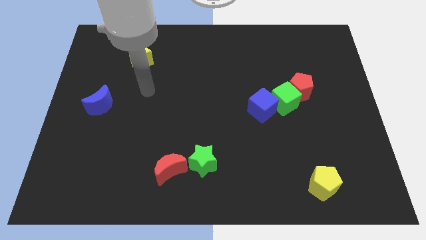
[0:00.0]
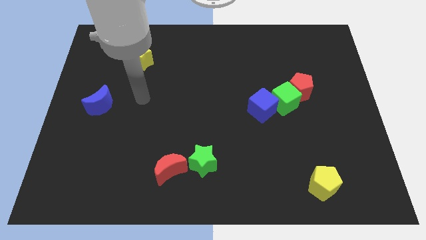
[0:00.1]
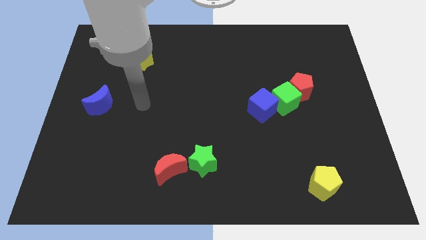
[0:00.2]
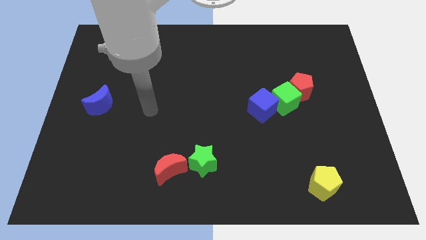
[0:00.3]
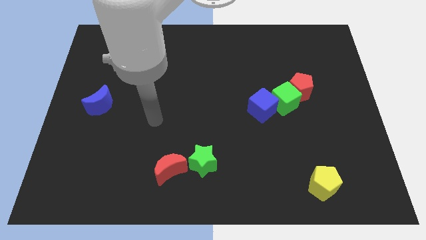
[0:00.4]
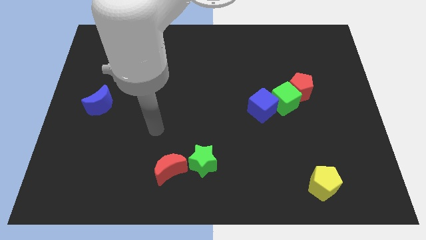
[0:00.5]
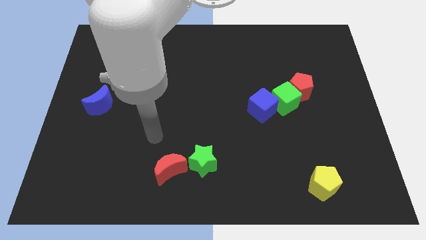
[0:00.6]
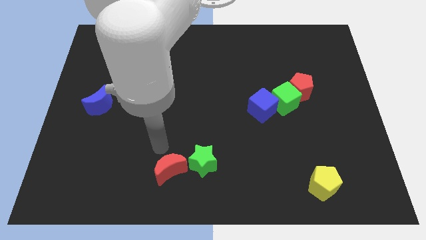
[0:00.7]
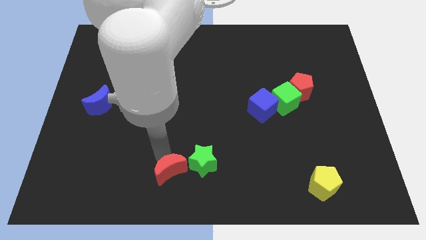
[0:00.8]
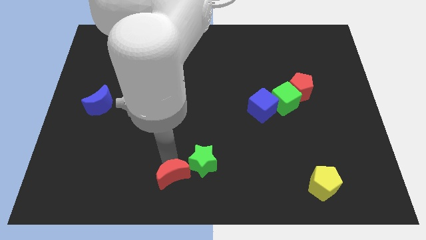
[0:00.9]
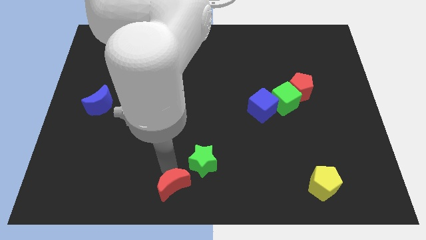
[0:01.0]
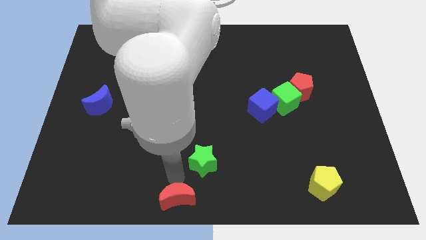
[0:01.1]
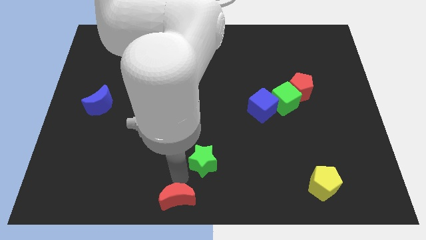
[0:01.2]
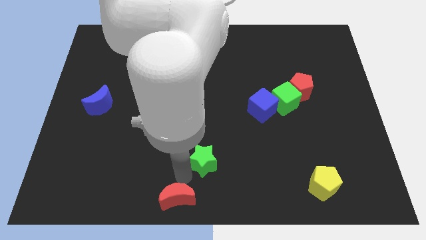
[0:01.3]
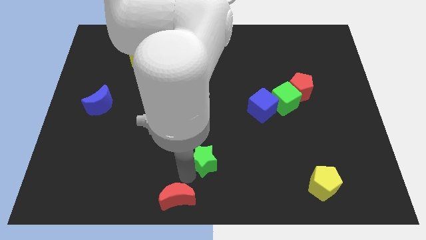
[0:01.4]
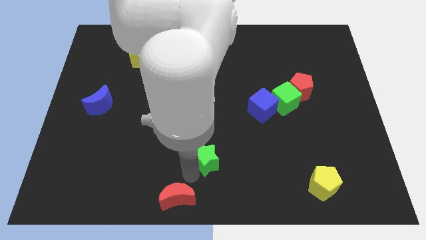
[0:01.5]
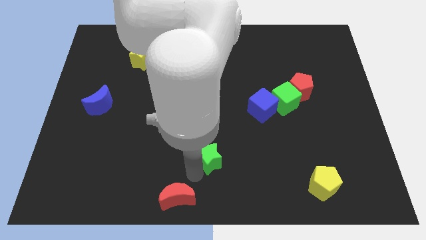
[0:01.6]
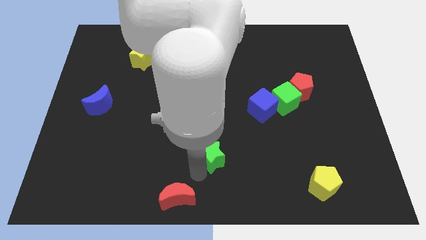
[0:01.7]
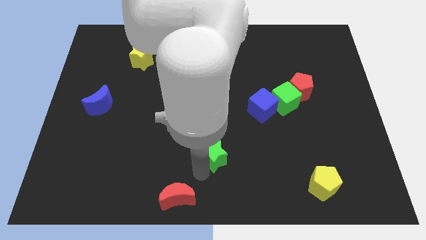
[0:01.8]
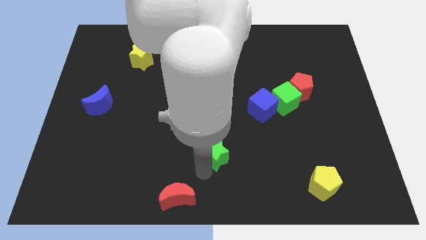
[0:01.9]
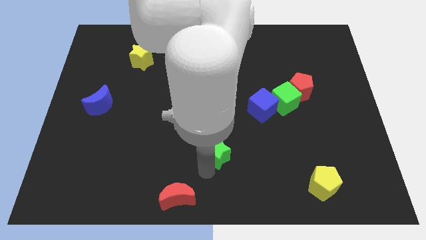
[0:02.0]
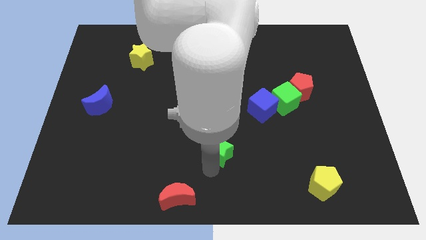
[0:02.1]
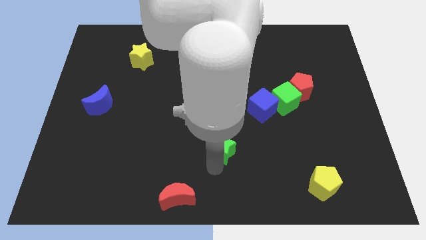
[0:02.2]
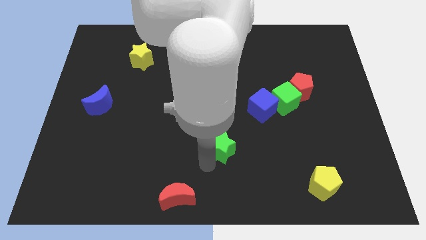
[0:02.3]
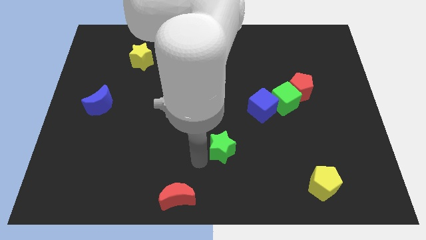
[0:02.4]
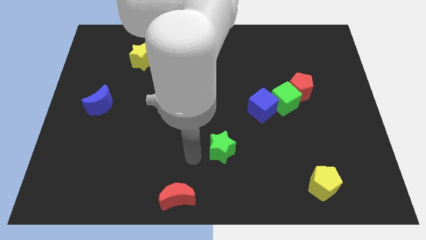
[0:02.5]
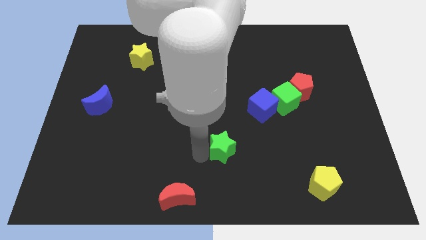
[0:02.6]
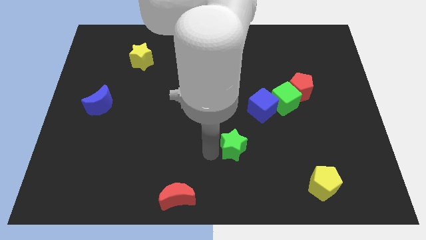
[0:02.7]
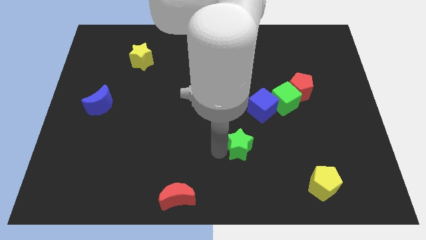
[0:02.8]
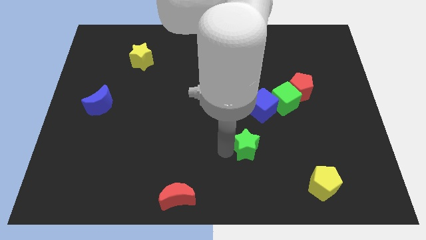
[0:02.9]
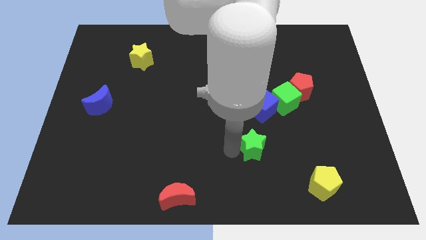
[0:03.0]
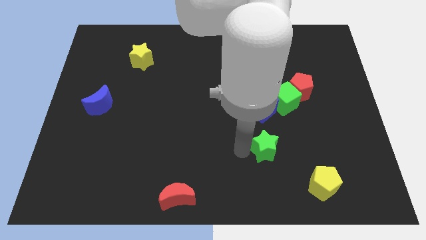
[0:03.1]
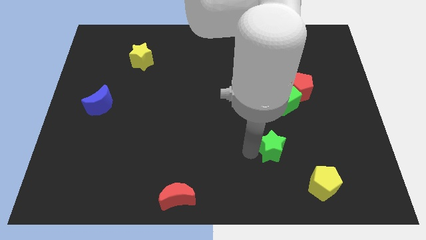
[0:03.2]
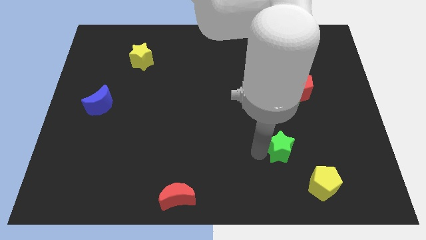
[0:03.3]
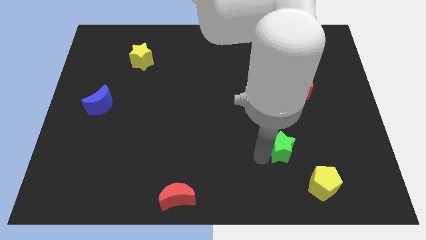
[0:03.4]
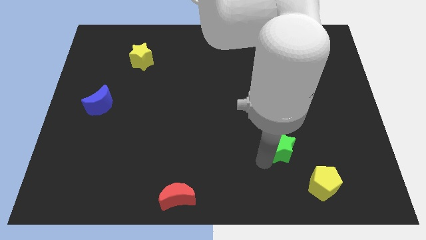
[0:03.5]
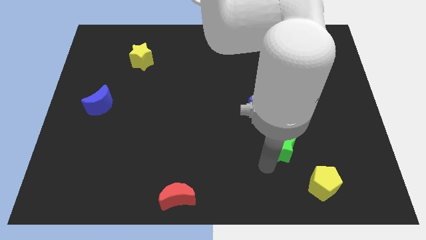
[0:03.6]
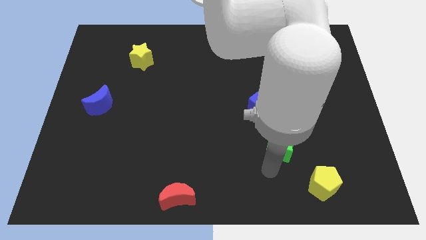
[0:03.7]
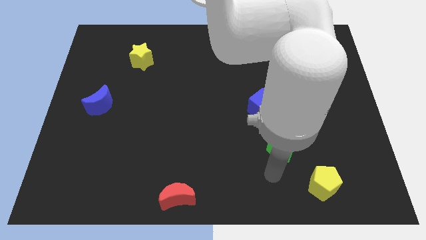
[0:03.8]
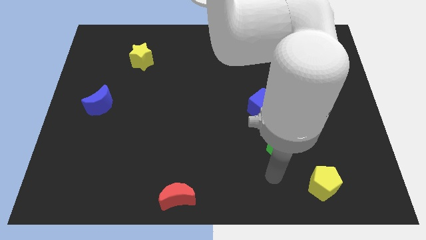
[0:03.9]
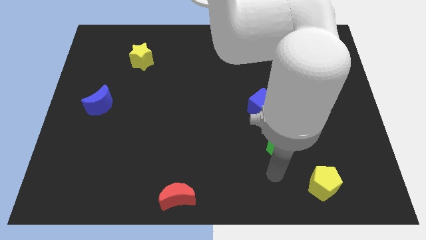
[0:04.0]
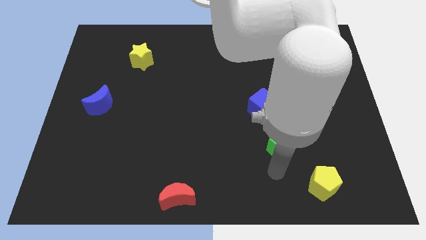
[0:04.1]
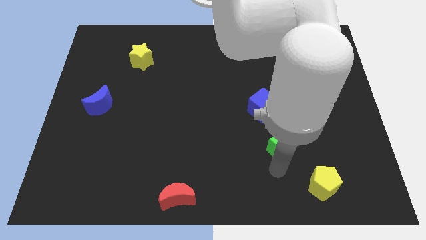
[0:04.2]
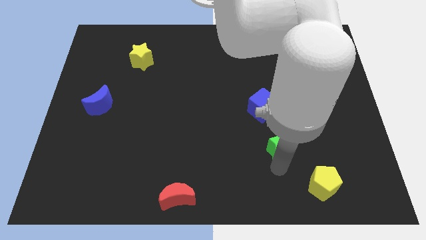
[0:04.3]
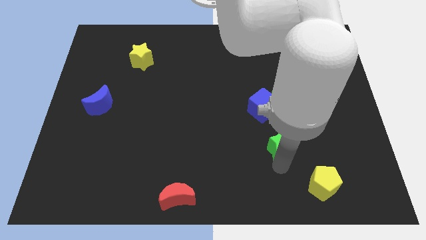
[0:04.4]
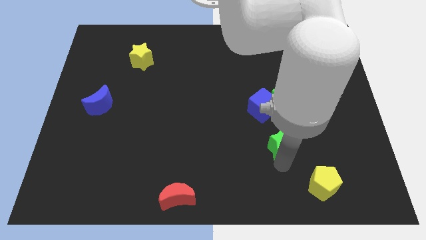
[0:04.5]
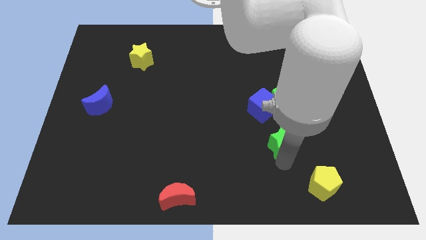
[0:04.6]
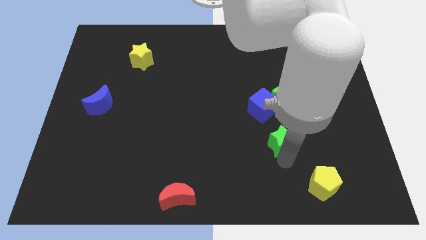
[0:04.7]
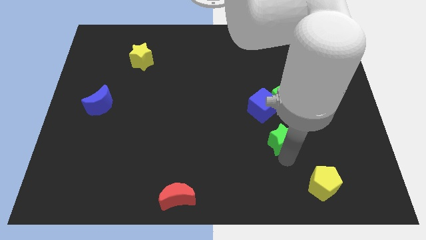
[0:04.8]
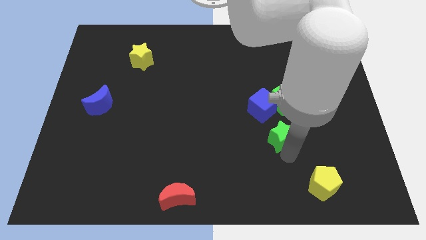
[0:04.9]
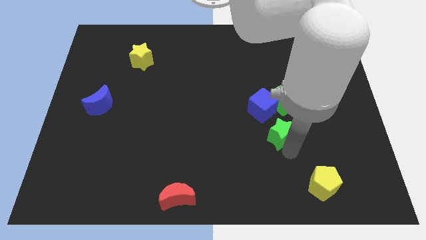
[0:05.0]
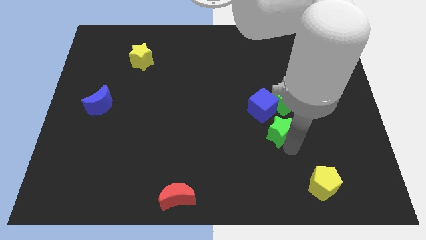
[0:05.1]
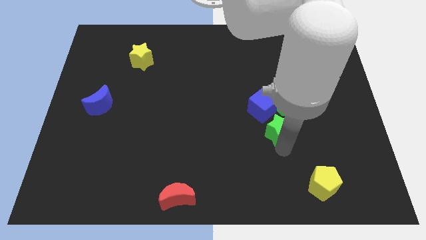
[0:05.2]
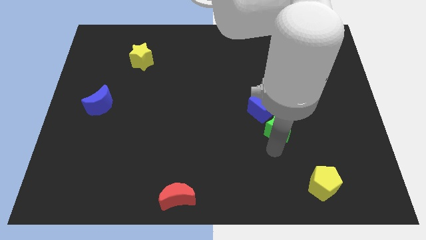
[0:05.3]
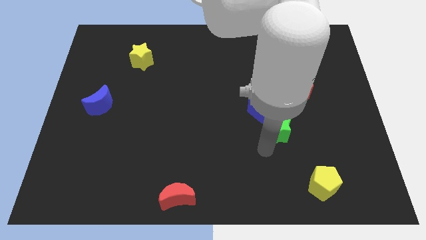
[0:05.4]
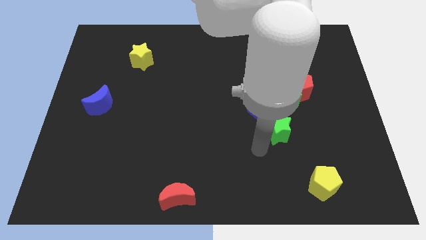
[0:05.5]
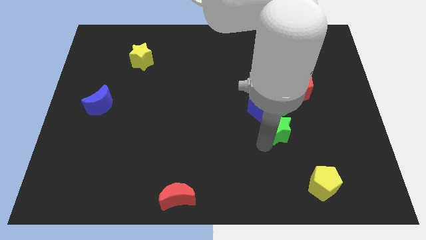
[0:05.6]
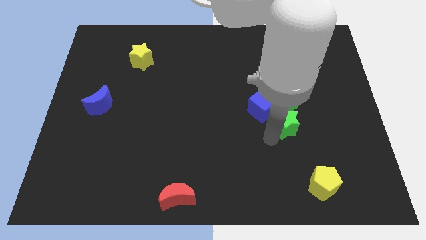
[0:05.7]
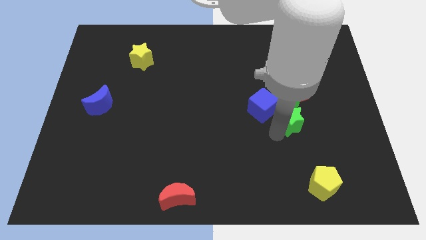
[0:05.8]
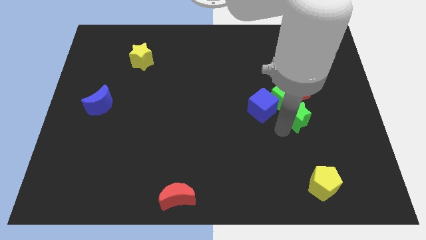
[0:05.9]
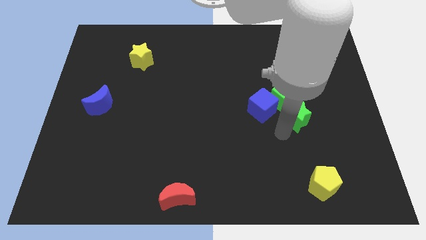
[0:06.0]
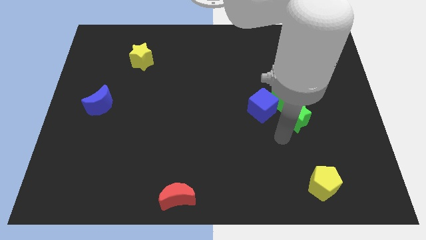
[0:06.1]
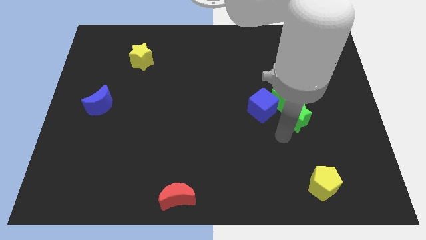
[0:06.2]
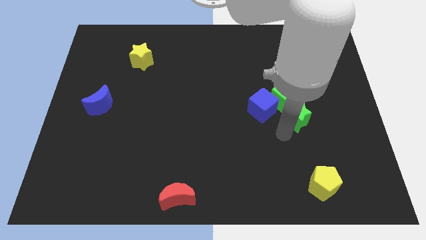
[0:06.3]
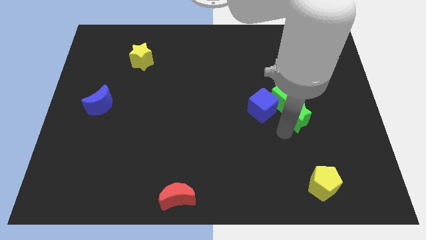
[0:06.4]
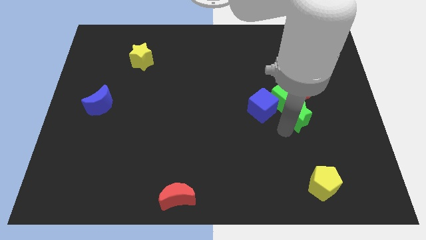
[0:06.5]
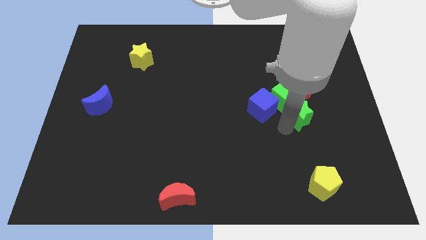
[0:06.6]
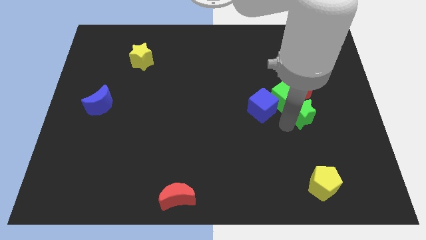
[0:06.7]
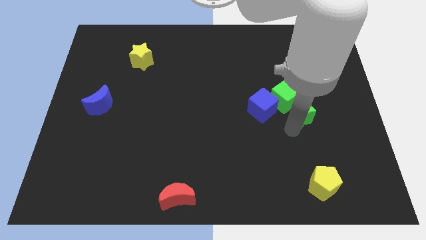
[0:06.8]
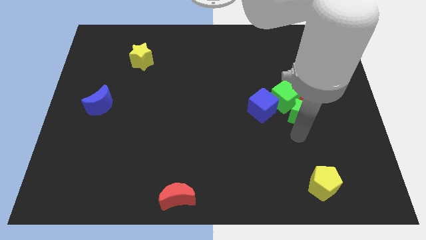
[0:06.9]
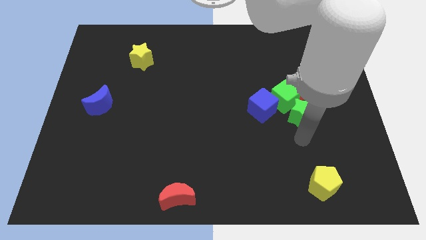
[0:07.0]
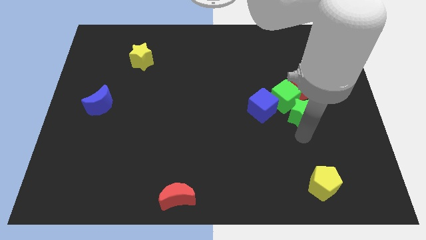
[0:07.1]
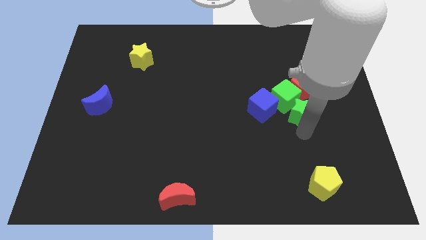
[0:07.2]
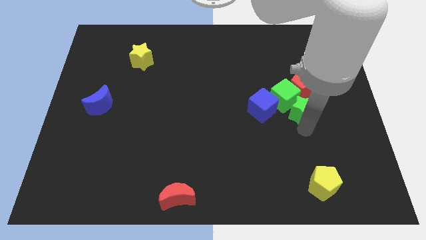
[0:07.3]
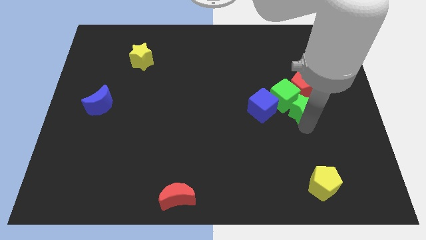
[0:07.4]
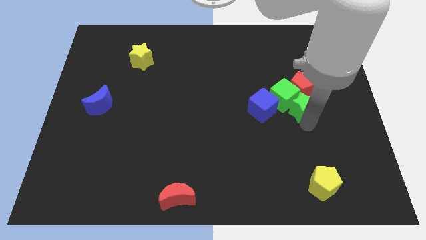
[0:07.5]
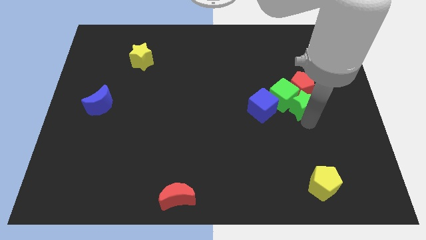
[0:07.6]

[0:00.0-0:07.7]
move the green star close to the red pentagon

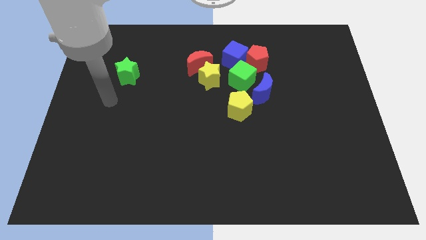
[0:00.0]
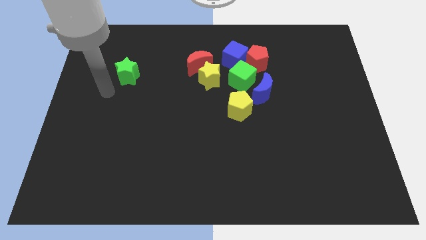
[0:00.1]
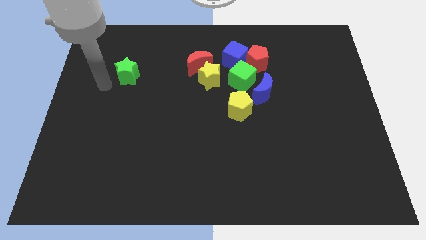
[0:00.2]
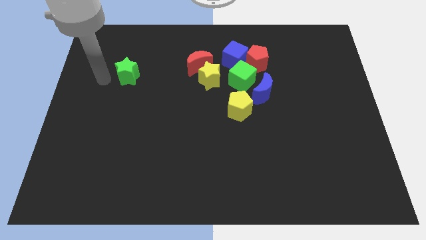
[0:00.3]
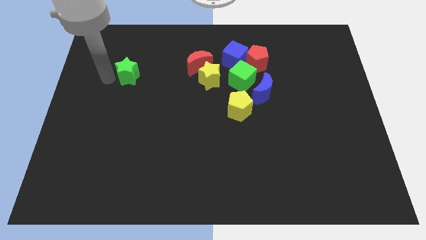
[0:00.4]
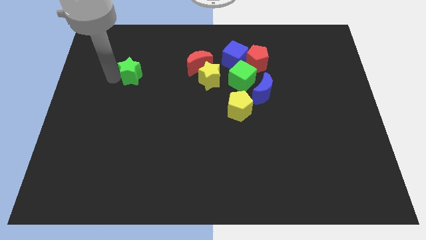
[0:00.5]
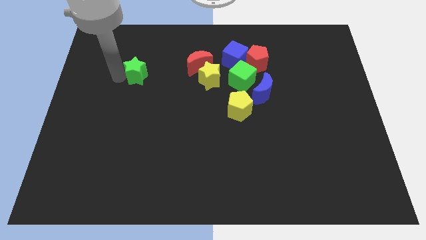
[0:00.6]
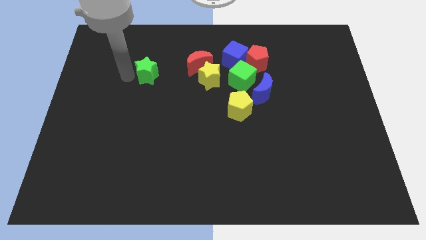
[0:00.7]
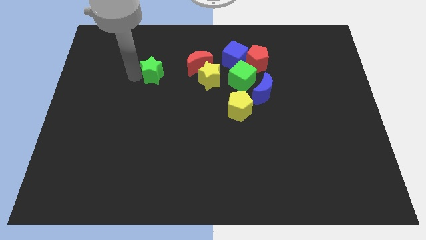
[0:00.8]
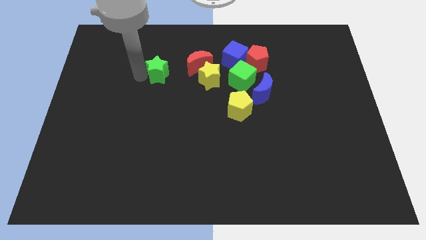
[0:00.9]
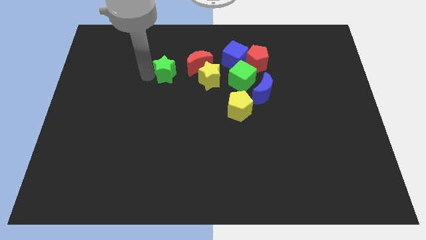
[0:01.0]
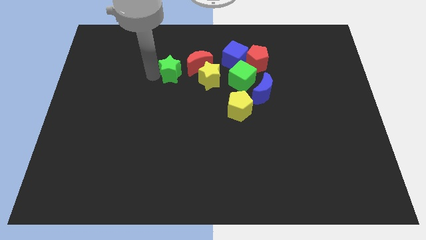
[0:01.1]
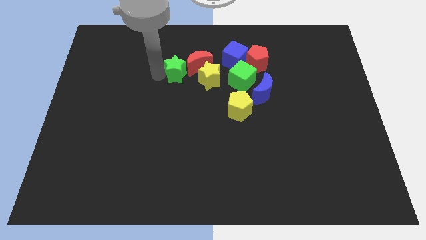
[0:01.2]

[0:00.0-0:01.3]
move the green star next to the red moon
